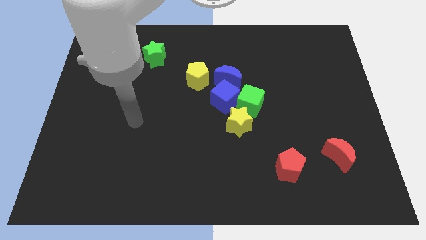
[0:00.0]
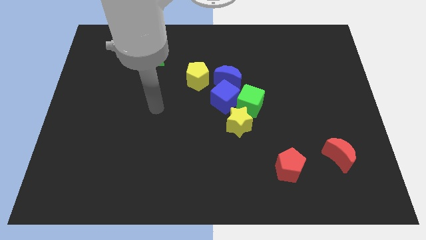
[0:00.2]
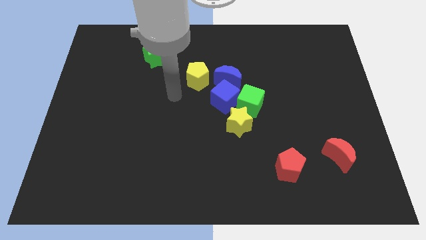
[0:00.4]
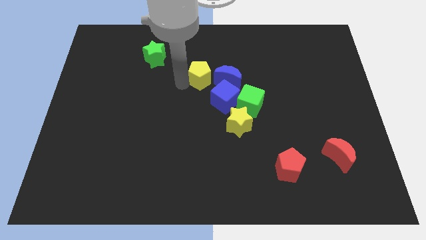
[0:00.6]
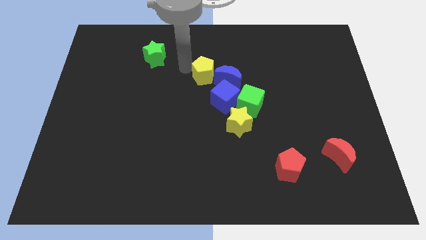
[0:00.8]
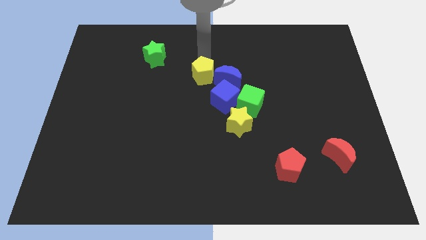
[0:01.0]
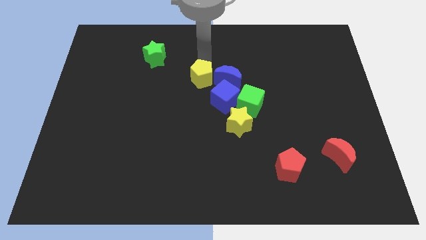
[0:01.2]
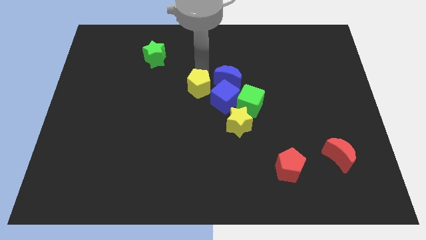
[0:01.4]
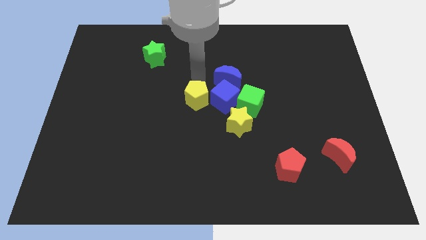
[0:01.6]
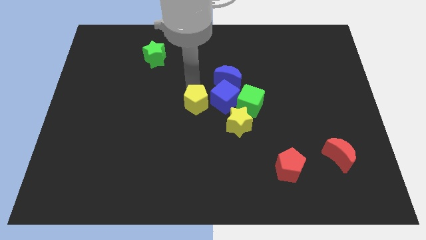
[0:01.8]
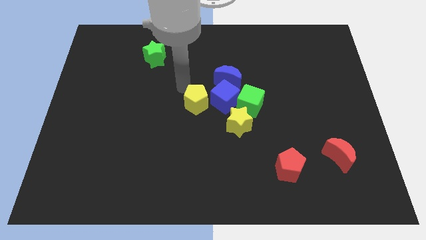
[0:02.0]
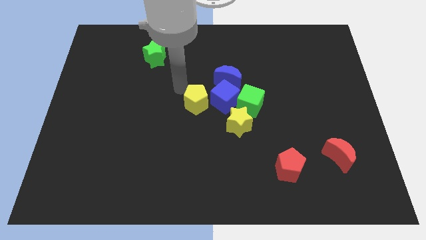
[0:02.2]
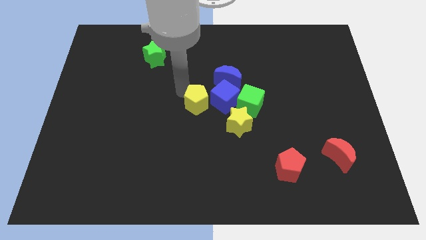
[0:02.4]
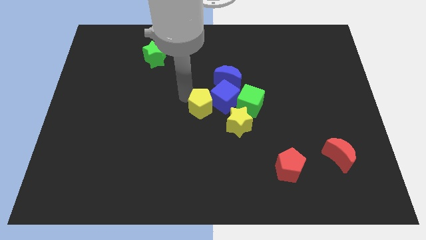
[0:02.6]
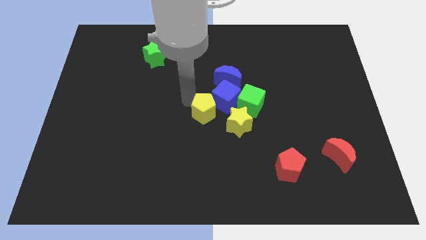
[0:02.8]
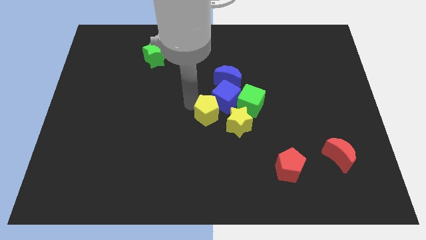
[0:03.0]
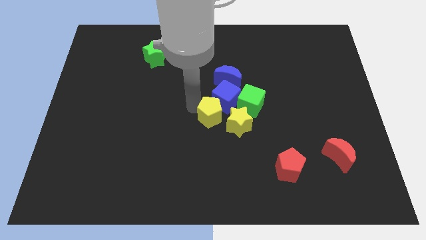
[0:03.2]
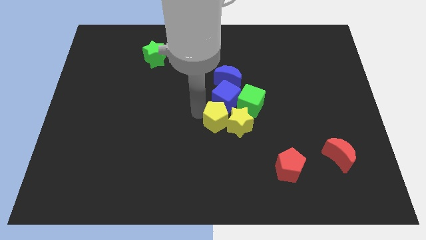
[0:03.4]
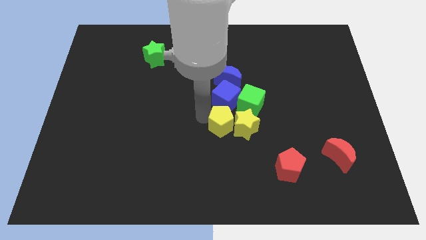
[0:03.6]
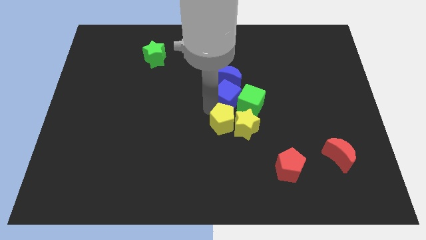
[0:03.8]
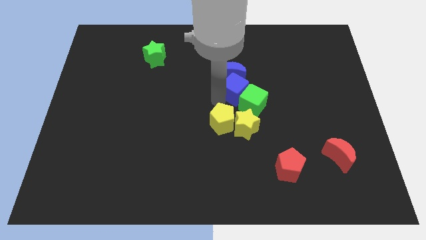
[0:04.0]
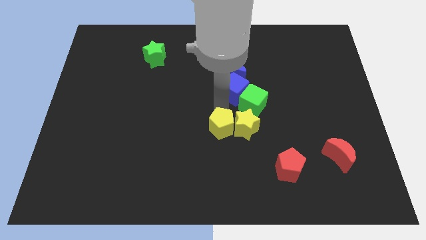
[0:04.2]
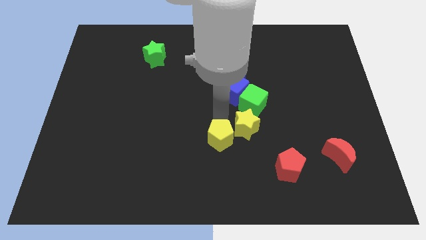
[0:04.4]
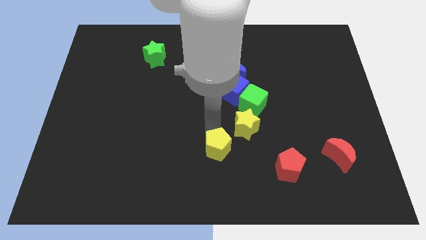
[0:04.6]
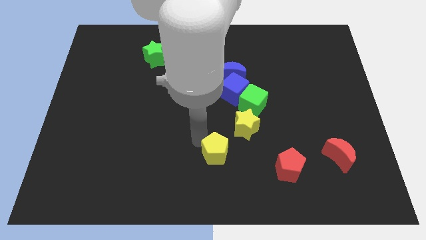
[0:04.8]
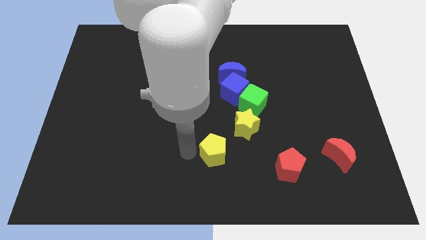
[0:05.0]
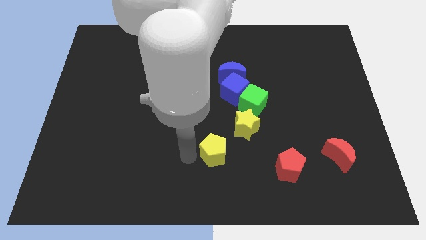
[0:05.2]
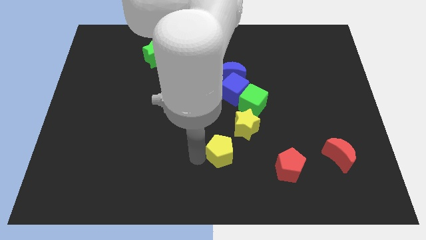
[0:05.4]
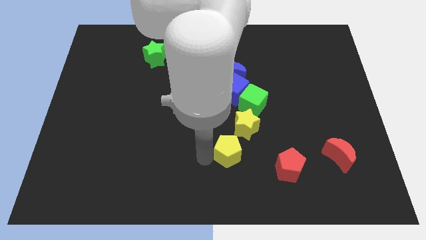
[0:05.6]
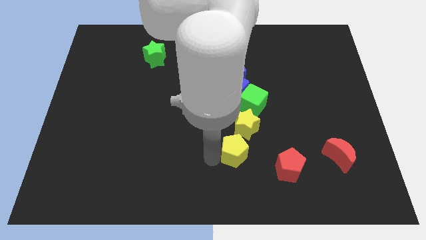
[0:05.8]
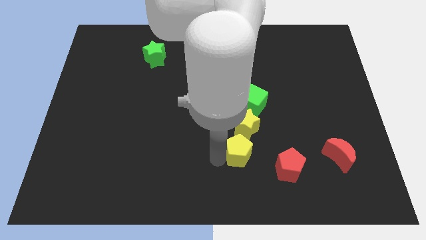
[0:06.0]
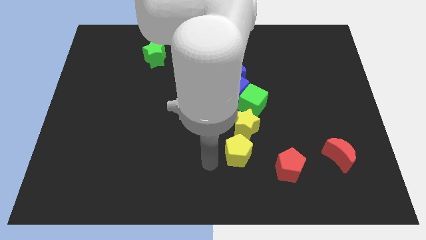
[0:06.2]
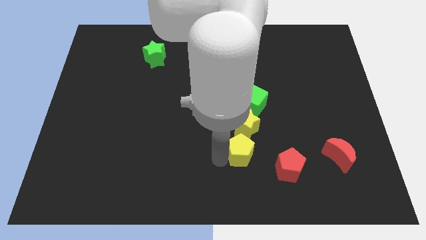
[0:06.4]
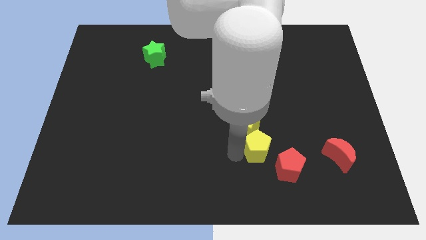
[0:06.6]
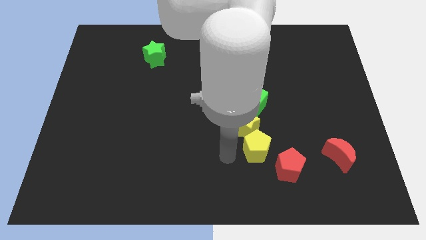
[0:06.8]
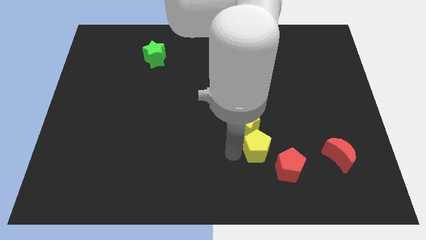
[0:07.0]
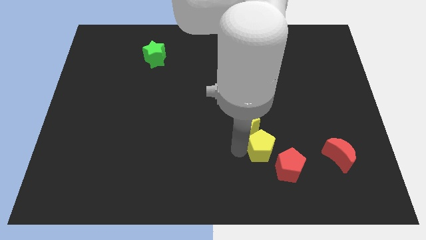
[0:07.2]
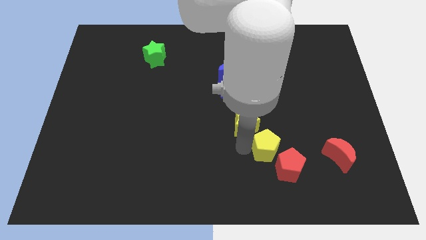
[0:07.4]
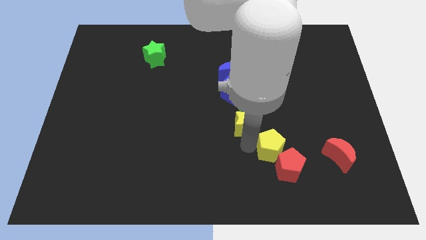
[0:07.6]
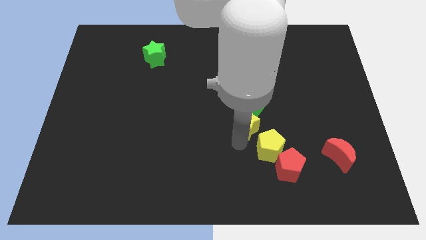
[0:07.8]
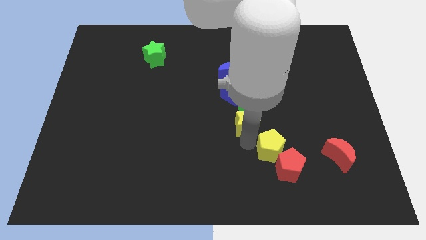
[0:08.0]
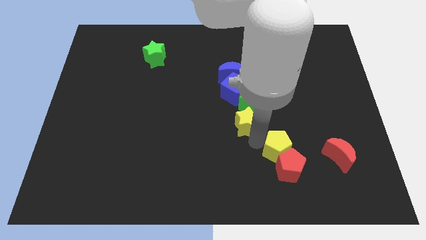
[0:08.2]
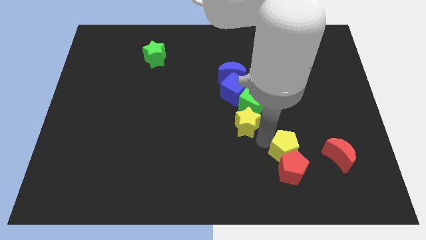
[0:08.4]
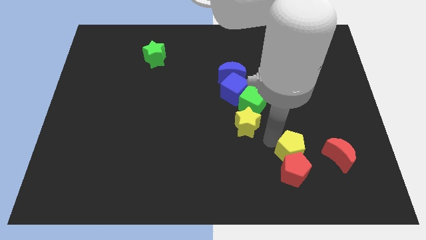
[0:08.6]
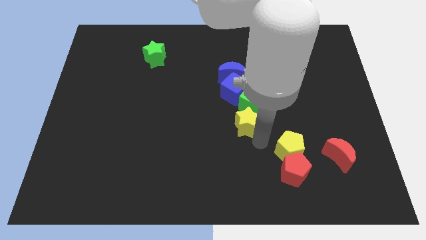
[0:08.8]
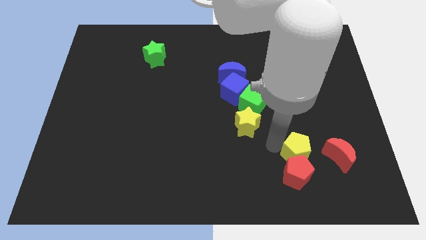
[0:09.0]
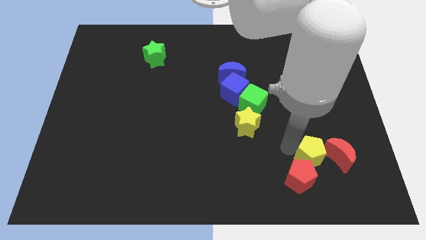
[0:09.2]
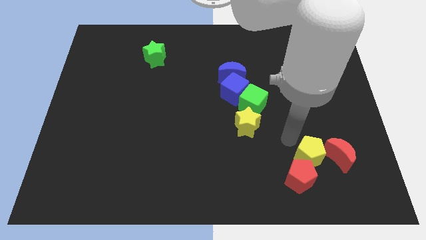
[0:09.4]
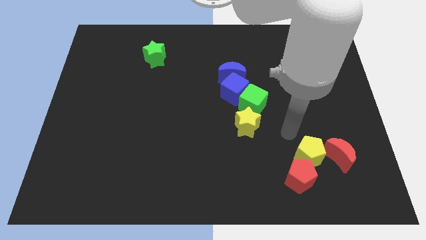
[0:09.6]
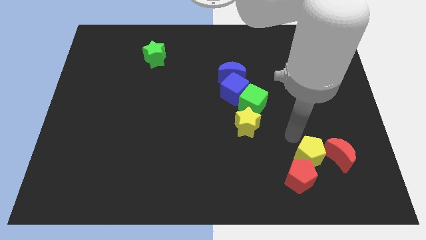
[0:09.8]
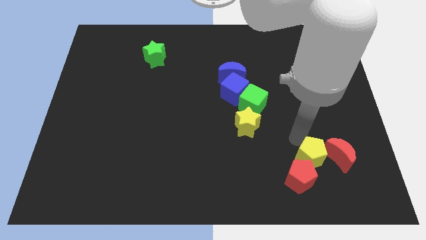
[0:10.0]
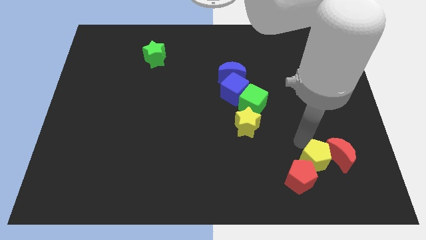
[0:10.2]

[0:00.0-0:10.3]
move the yellow pentagon right of the red pentagon

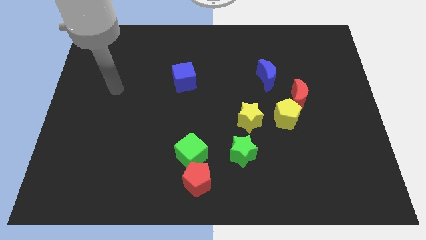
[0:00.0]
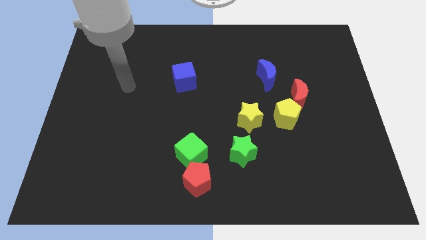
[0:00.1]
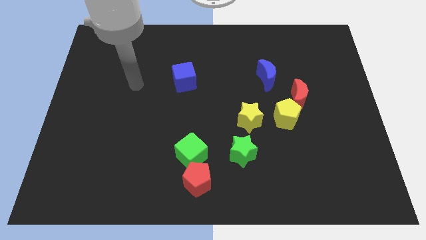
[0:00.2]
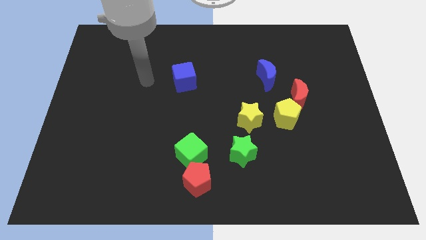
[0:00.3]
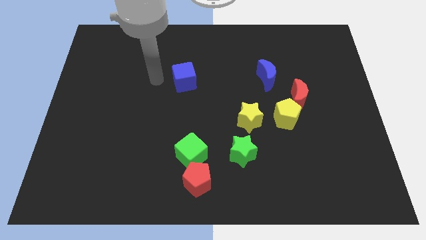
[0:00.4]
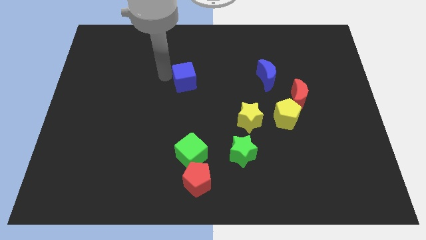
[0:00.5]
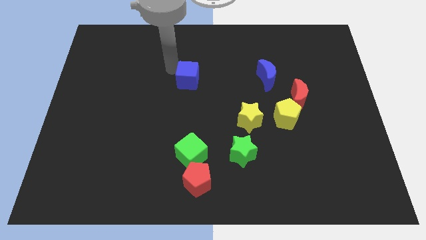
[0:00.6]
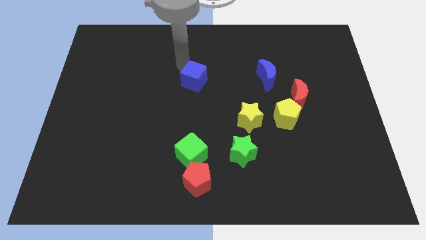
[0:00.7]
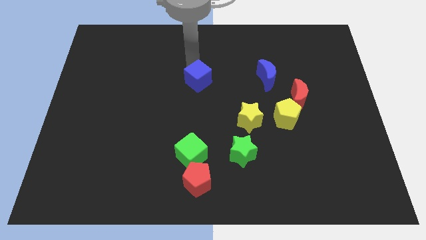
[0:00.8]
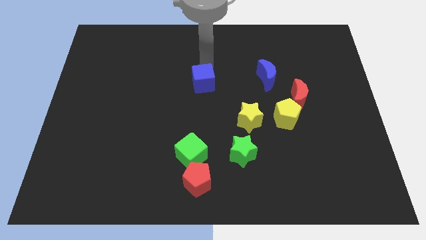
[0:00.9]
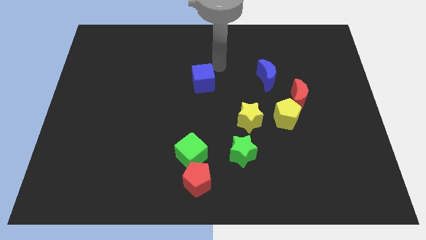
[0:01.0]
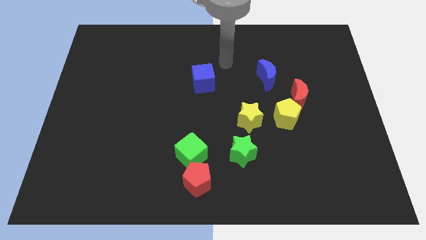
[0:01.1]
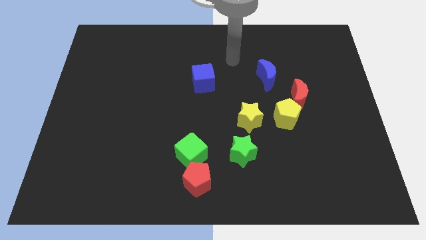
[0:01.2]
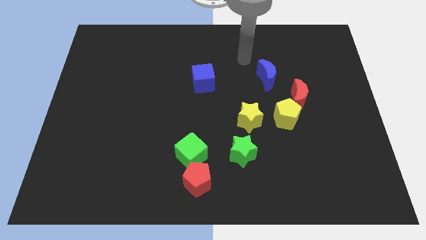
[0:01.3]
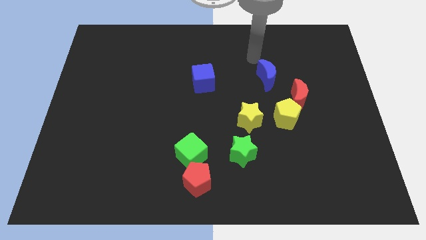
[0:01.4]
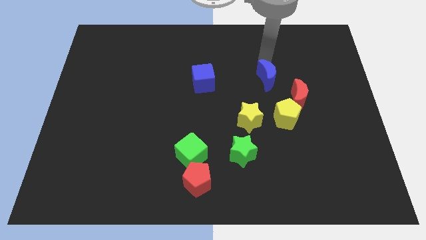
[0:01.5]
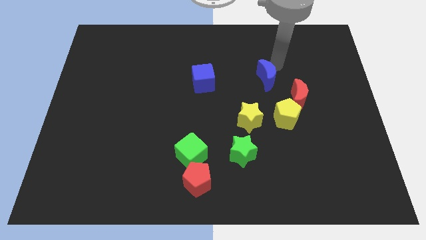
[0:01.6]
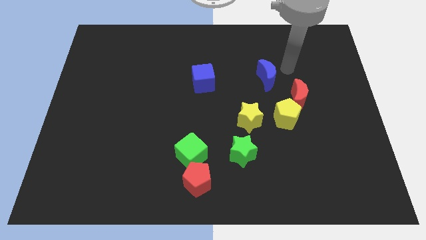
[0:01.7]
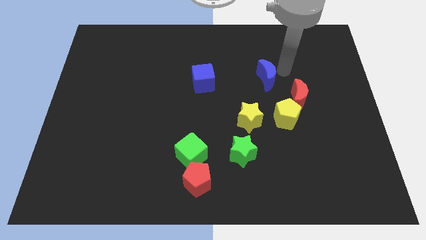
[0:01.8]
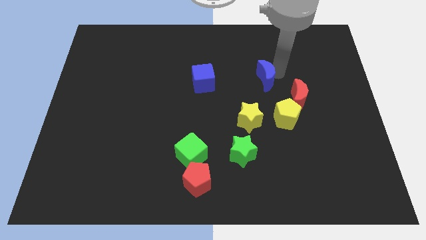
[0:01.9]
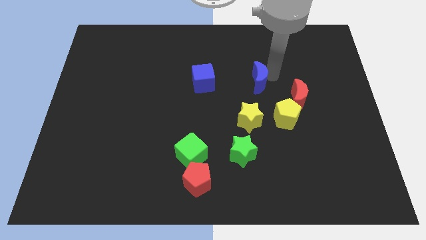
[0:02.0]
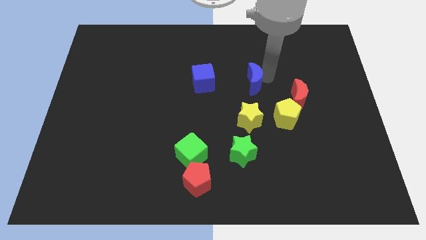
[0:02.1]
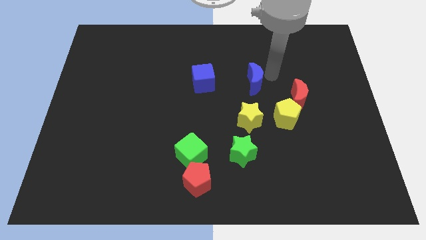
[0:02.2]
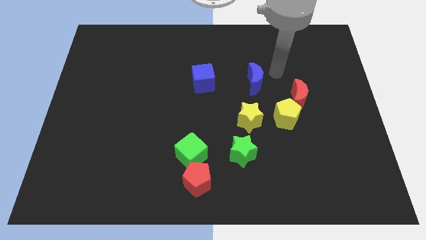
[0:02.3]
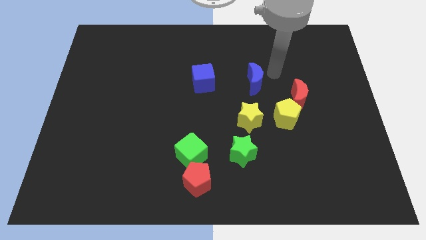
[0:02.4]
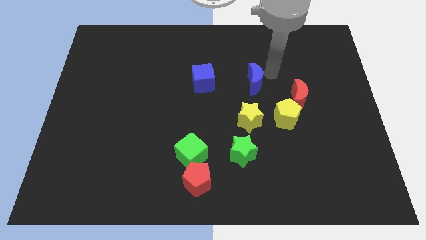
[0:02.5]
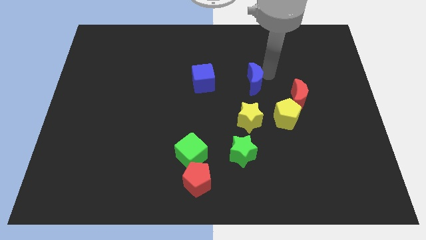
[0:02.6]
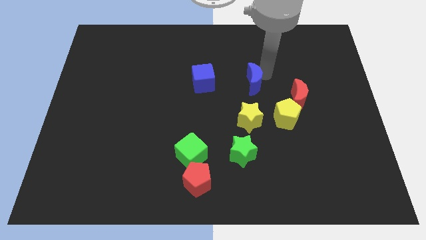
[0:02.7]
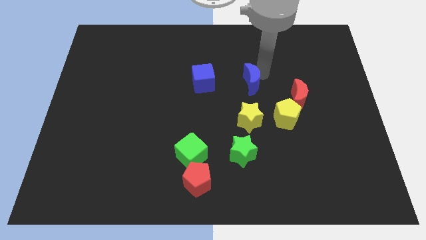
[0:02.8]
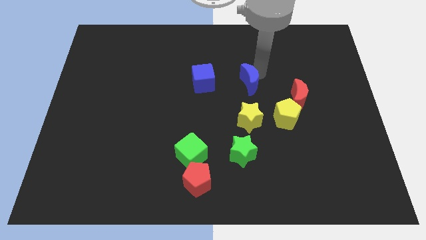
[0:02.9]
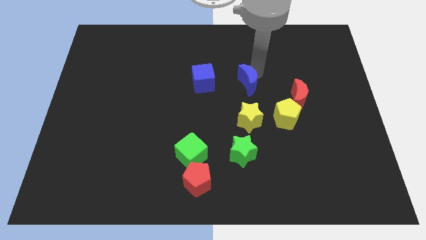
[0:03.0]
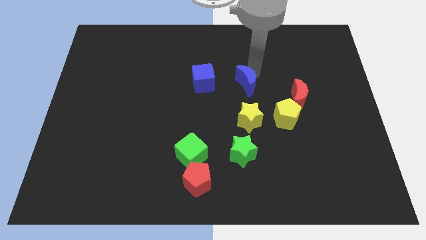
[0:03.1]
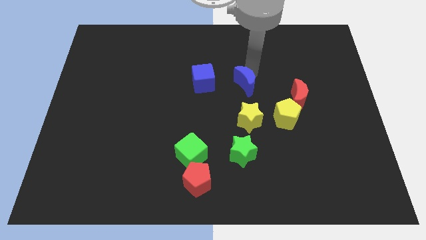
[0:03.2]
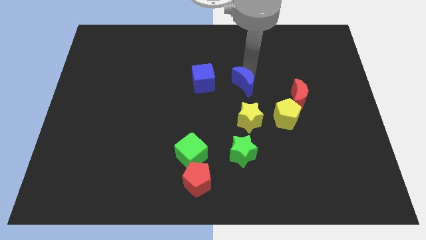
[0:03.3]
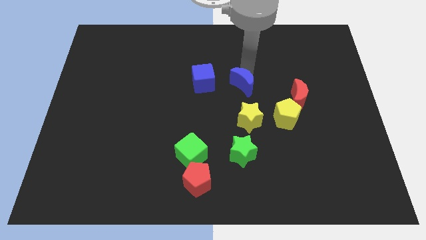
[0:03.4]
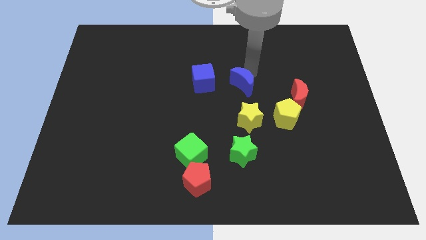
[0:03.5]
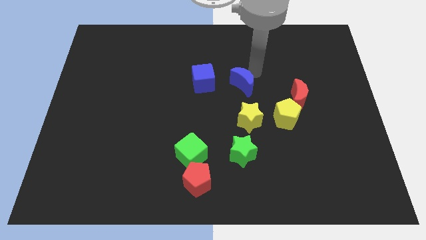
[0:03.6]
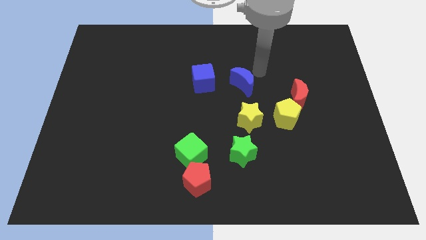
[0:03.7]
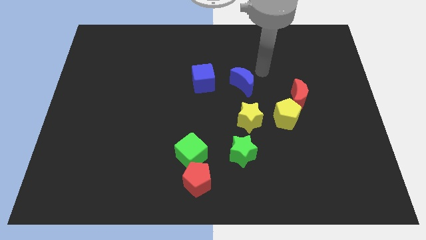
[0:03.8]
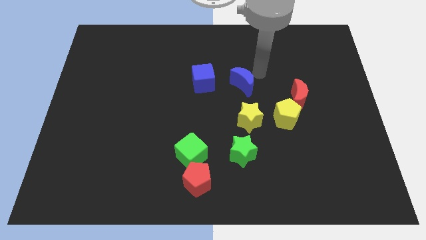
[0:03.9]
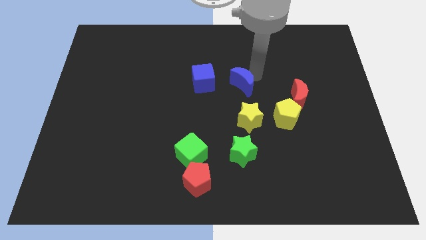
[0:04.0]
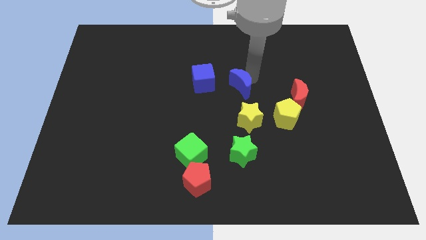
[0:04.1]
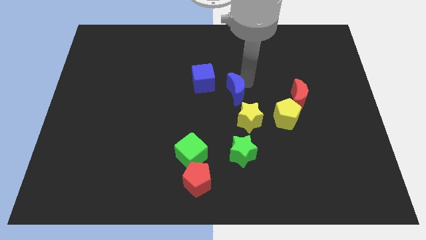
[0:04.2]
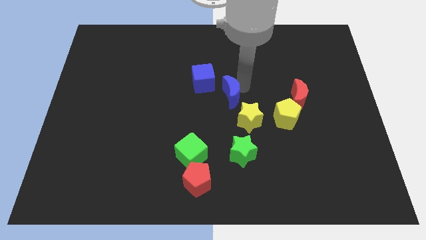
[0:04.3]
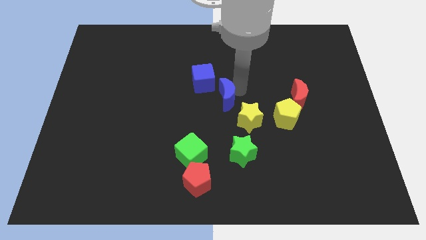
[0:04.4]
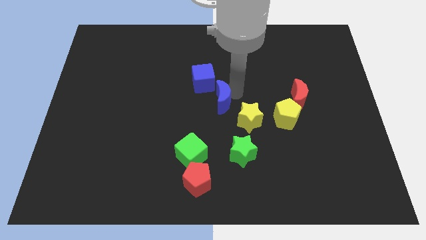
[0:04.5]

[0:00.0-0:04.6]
move the blue moon to the bottom of the blue cube
